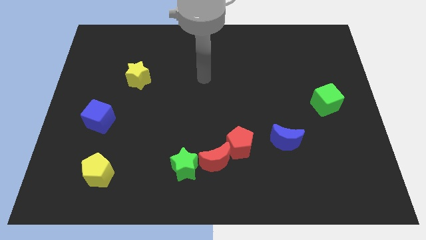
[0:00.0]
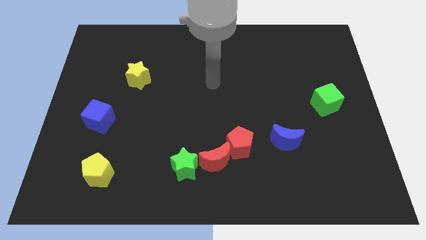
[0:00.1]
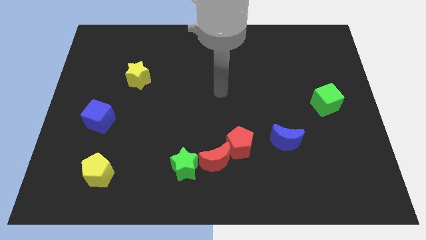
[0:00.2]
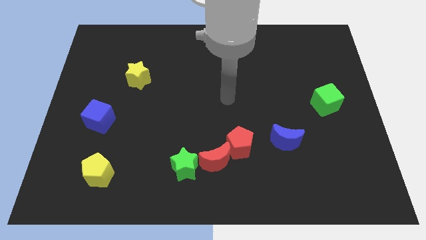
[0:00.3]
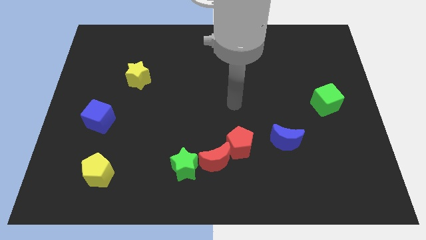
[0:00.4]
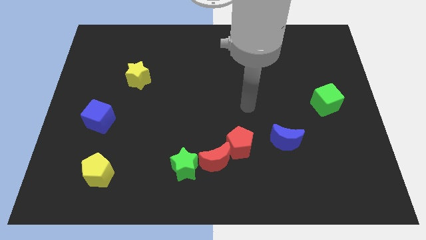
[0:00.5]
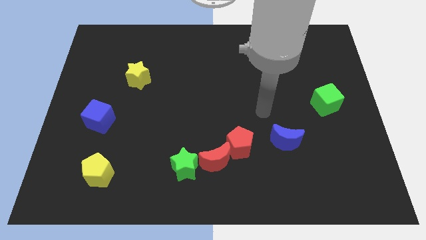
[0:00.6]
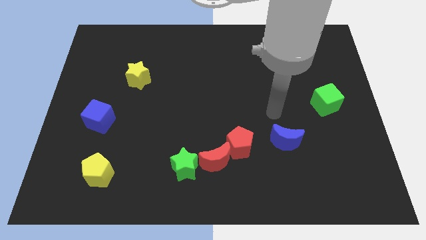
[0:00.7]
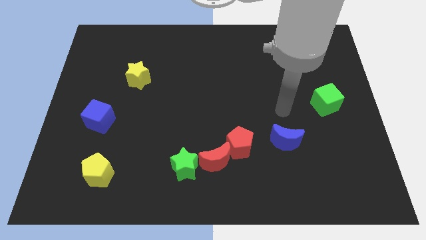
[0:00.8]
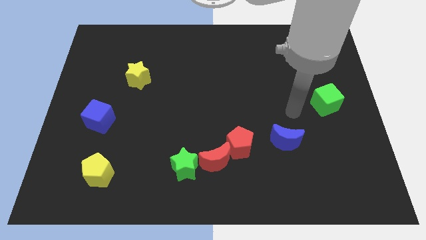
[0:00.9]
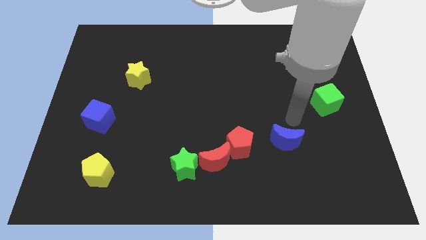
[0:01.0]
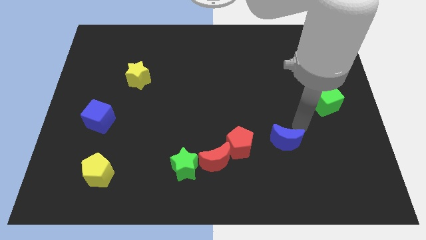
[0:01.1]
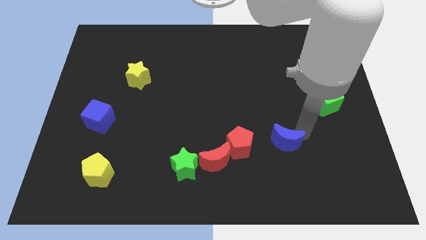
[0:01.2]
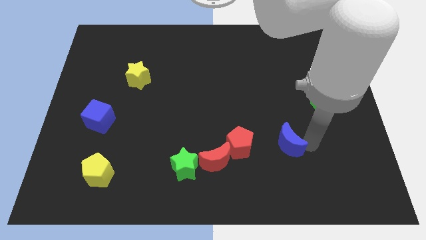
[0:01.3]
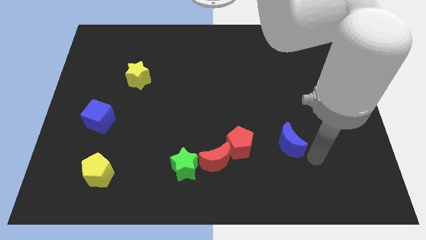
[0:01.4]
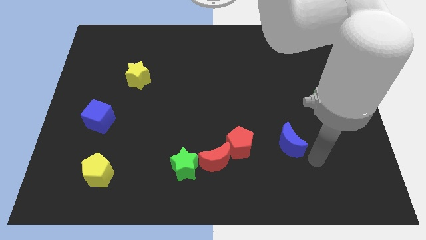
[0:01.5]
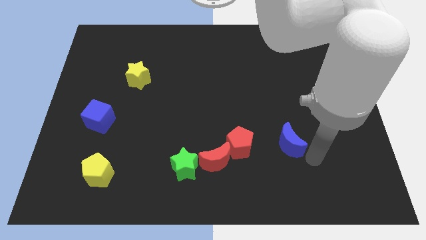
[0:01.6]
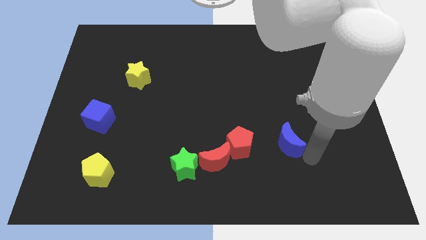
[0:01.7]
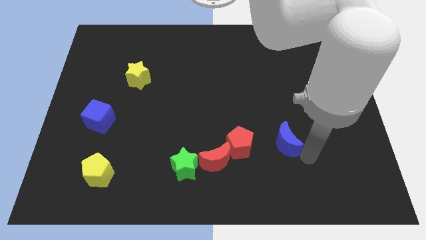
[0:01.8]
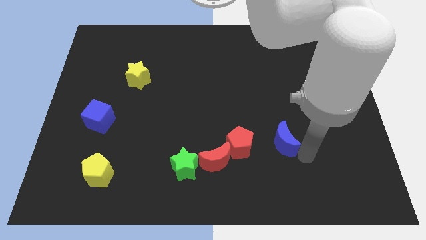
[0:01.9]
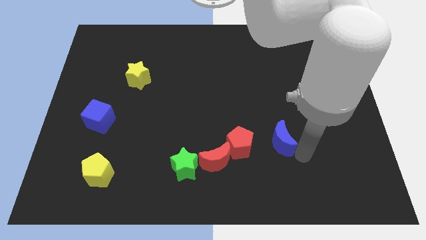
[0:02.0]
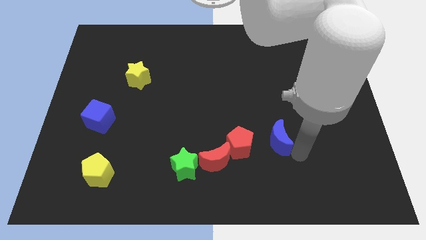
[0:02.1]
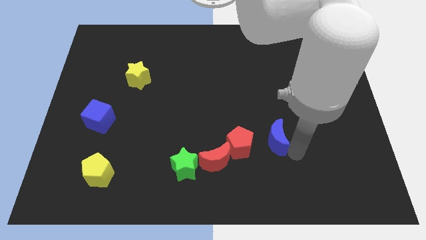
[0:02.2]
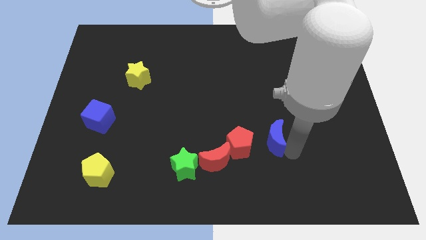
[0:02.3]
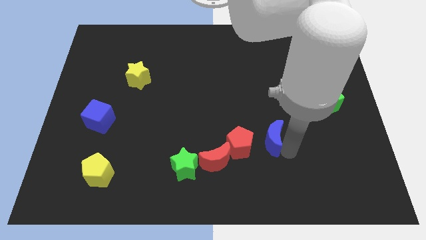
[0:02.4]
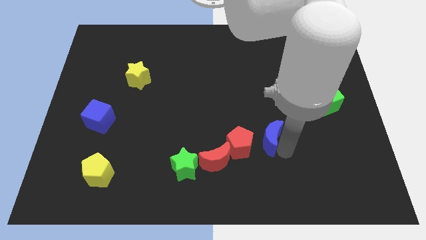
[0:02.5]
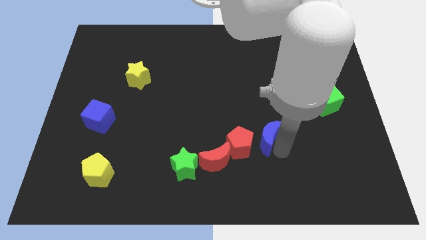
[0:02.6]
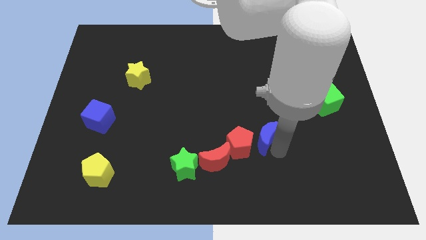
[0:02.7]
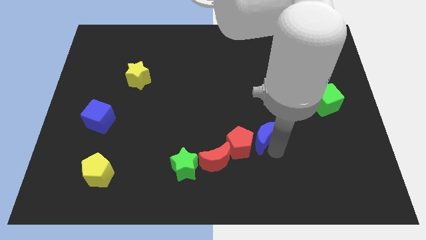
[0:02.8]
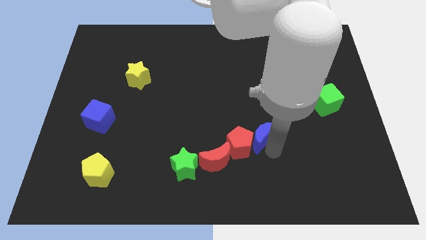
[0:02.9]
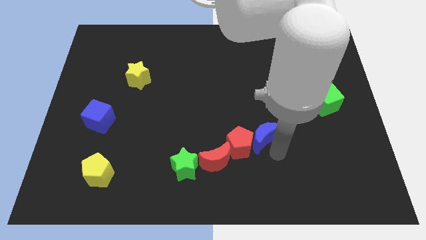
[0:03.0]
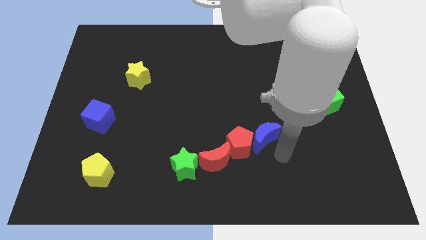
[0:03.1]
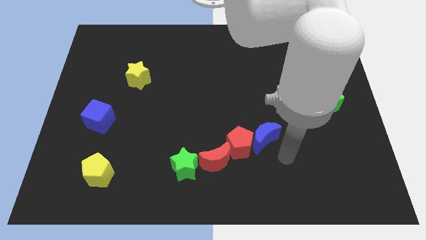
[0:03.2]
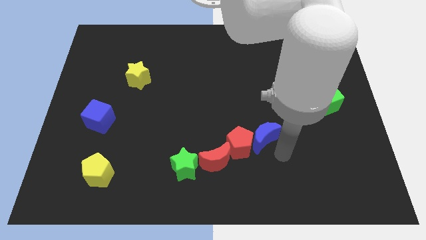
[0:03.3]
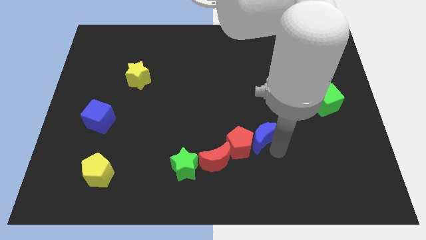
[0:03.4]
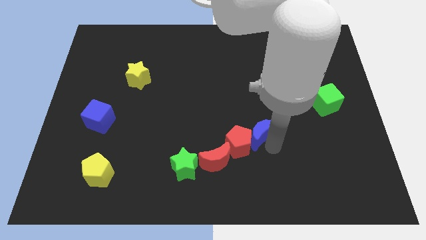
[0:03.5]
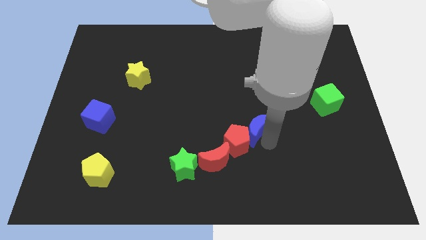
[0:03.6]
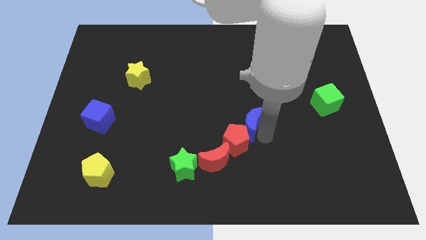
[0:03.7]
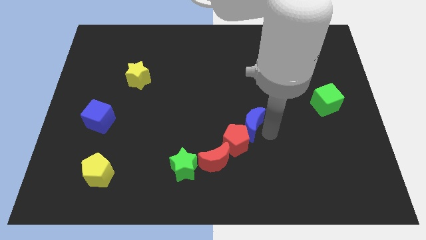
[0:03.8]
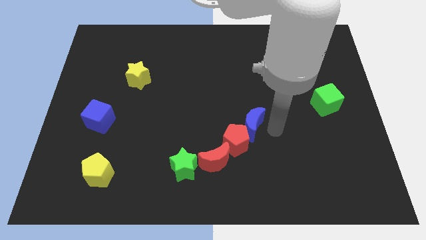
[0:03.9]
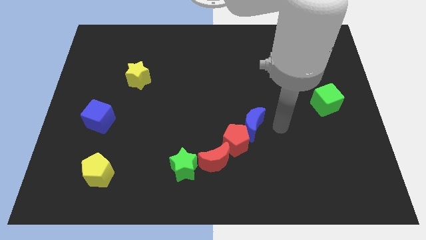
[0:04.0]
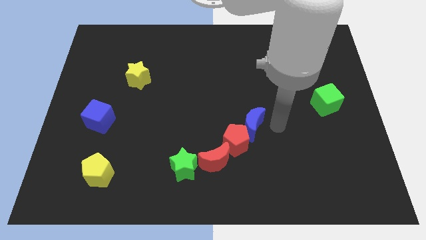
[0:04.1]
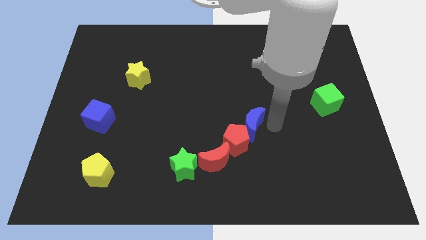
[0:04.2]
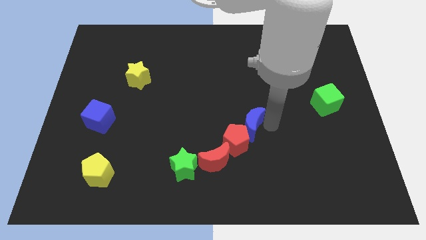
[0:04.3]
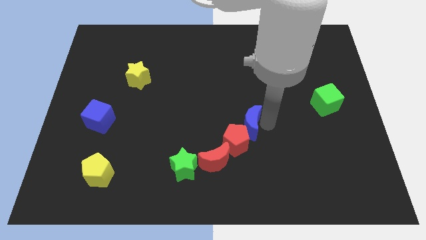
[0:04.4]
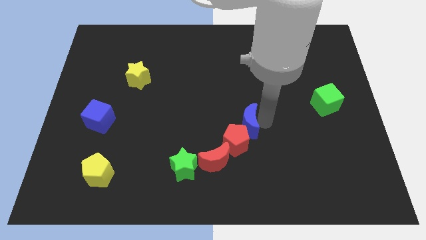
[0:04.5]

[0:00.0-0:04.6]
slide the blue moon to the left a little bit

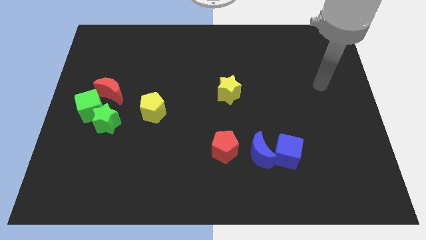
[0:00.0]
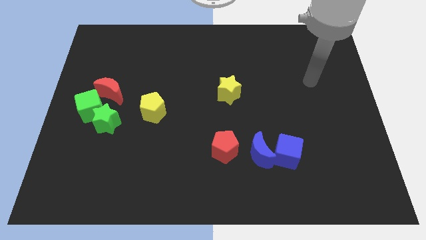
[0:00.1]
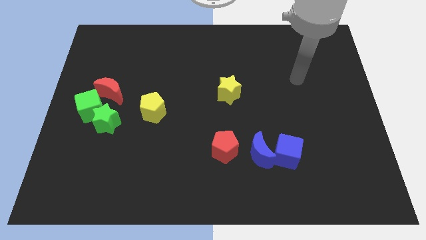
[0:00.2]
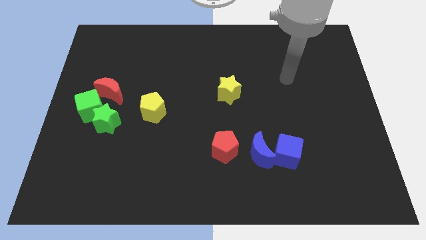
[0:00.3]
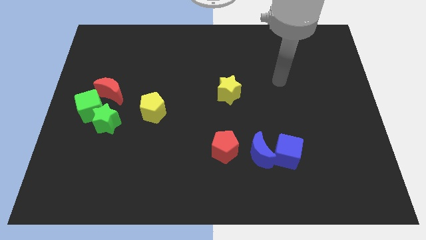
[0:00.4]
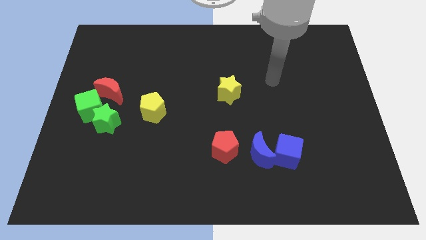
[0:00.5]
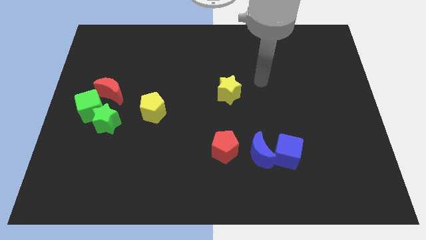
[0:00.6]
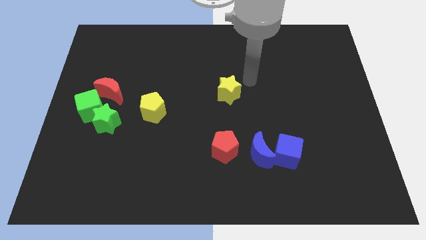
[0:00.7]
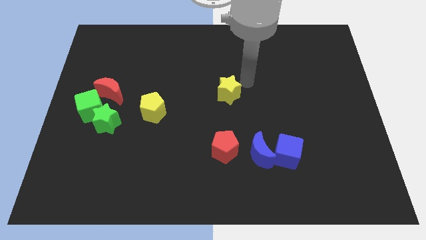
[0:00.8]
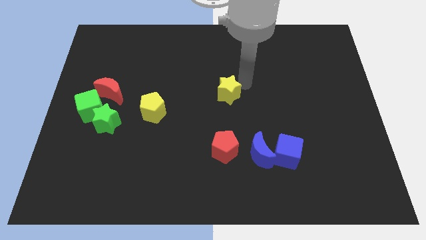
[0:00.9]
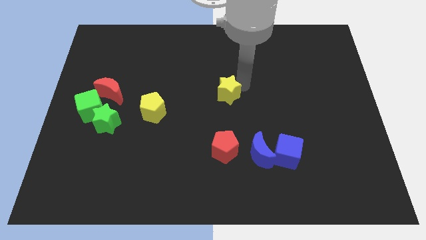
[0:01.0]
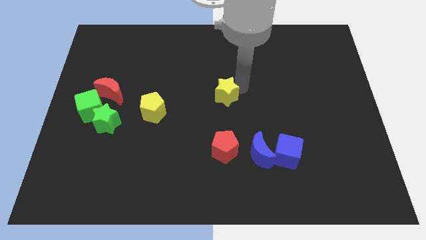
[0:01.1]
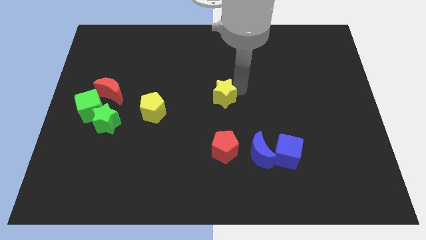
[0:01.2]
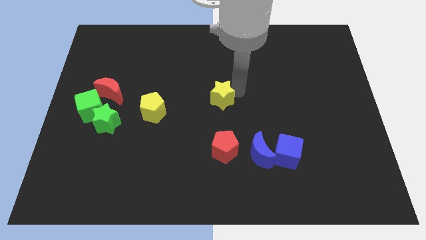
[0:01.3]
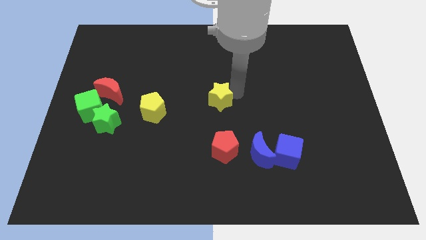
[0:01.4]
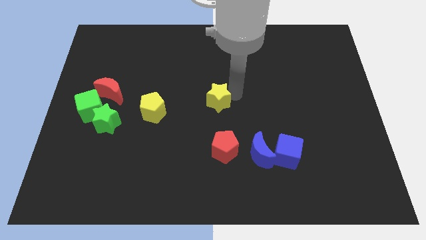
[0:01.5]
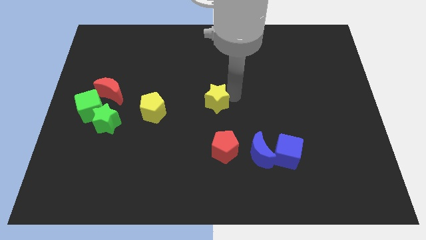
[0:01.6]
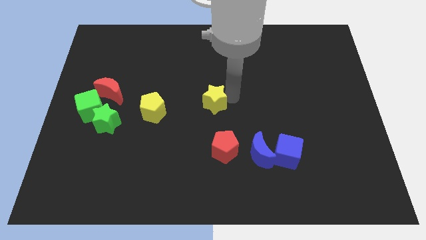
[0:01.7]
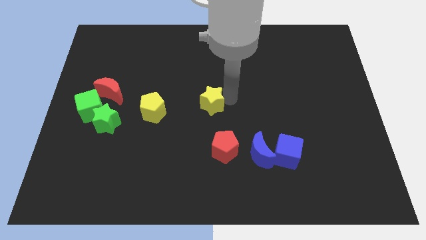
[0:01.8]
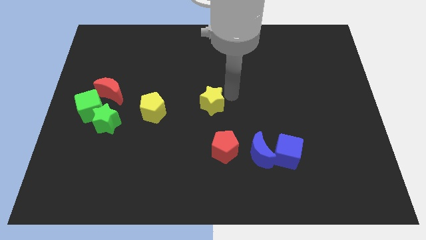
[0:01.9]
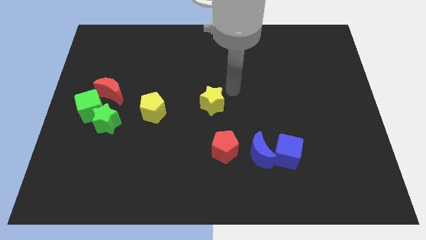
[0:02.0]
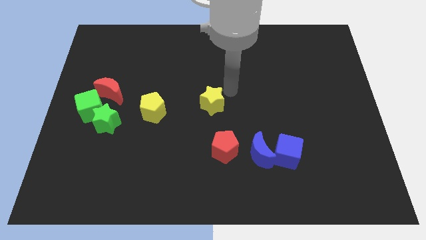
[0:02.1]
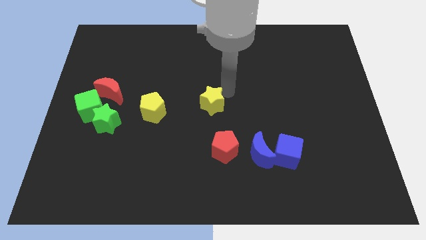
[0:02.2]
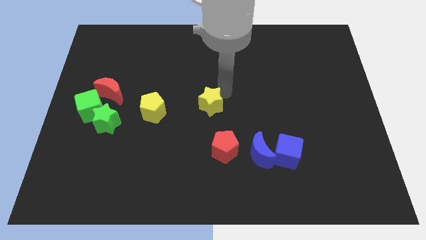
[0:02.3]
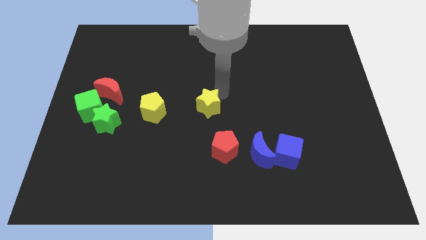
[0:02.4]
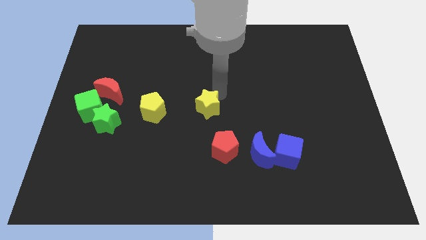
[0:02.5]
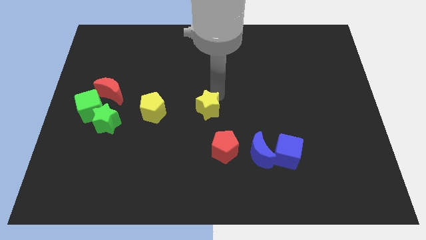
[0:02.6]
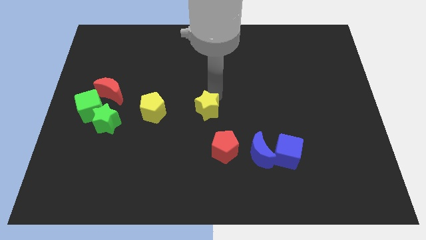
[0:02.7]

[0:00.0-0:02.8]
slightly slide the yellow star down and left diagonally

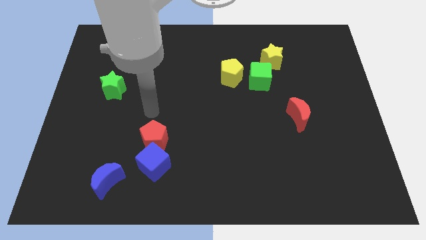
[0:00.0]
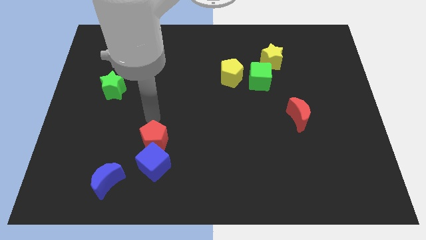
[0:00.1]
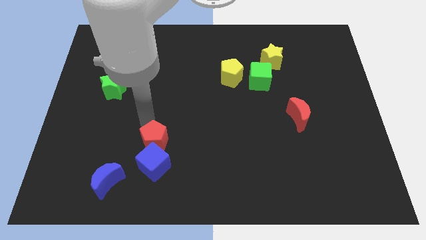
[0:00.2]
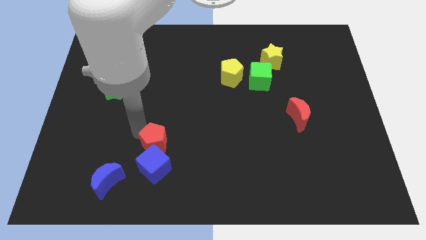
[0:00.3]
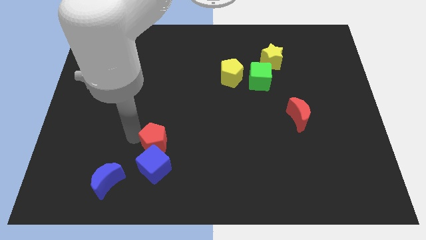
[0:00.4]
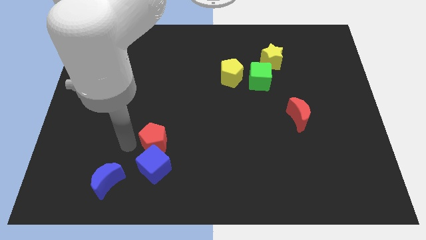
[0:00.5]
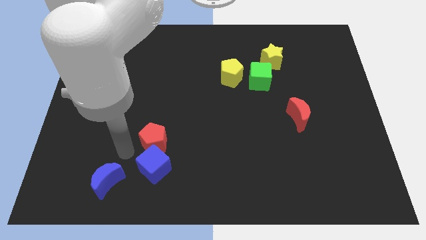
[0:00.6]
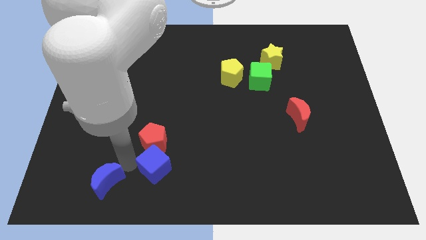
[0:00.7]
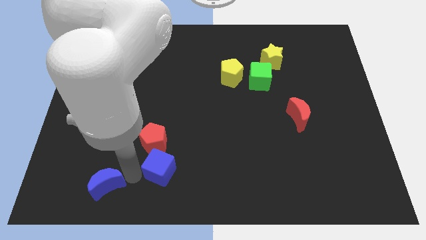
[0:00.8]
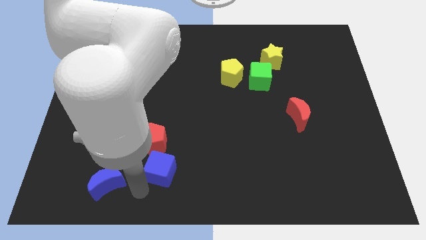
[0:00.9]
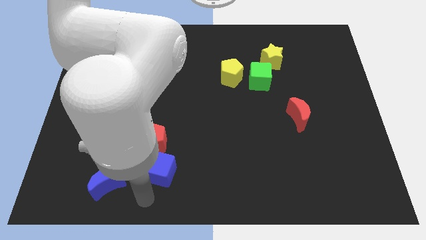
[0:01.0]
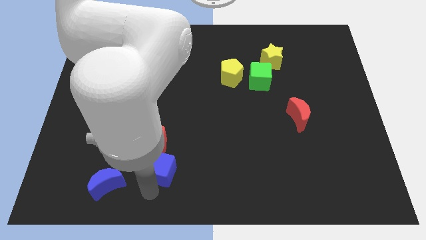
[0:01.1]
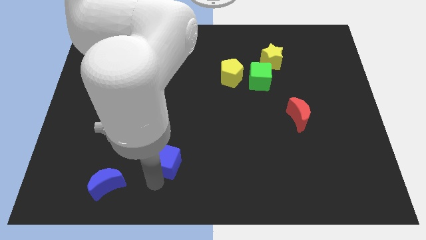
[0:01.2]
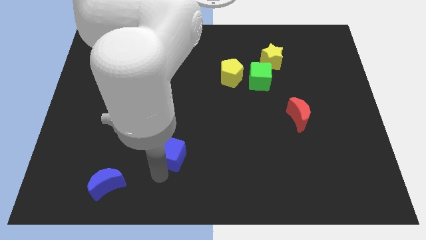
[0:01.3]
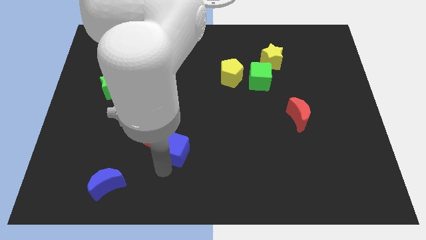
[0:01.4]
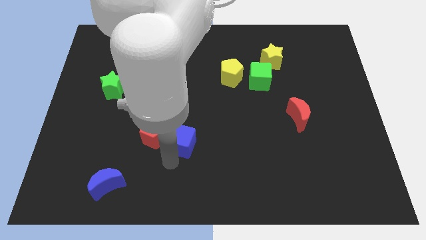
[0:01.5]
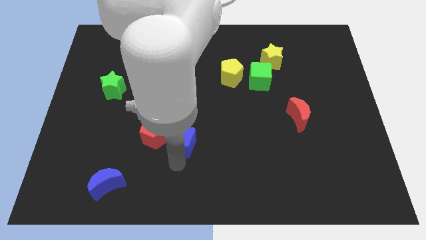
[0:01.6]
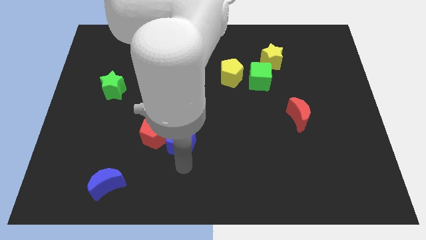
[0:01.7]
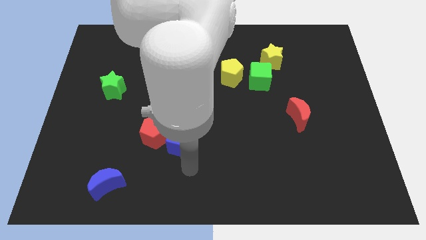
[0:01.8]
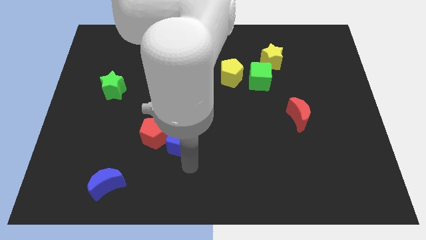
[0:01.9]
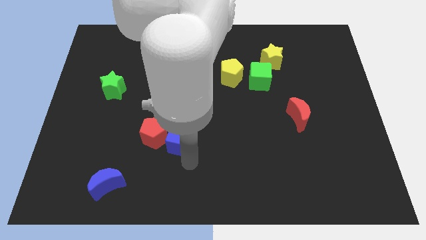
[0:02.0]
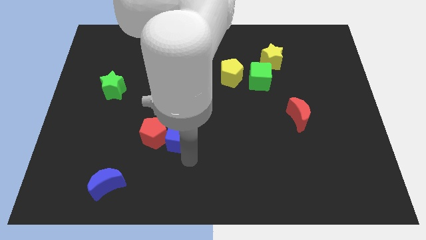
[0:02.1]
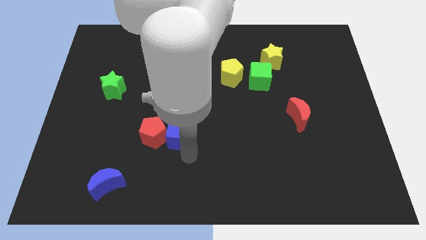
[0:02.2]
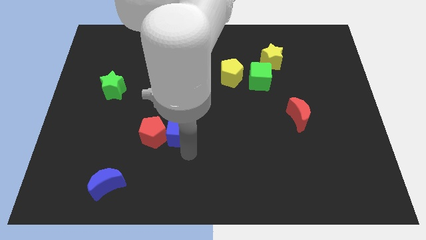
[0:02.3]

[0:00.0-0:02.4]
slightly move the blue cube up
